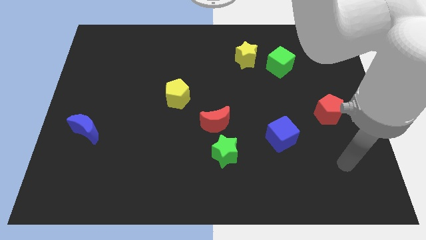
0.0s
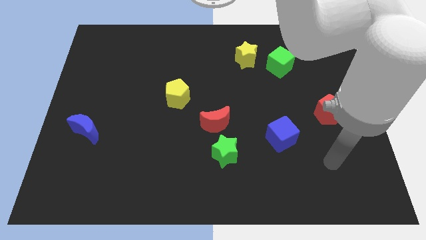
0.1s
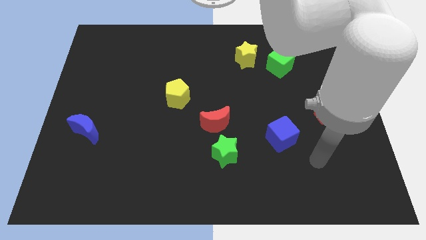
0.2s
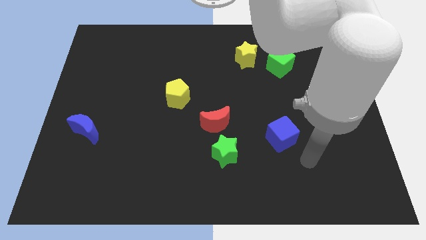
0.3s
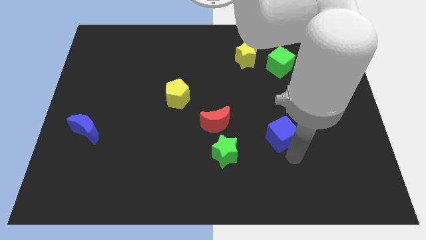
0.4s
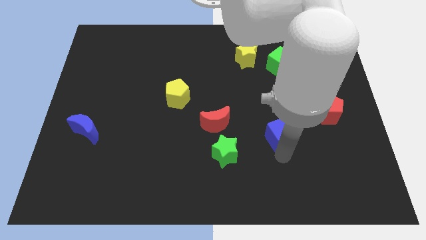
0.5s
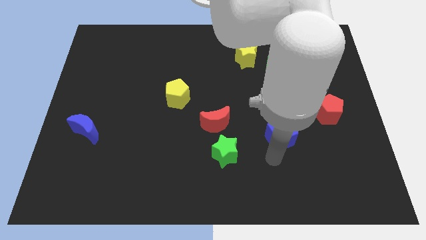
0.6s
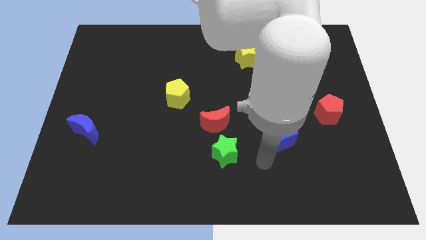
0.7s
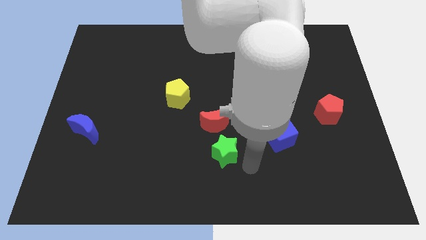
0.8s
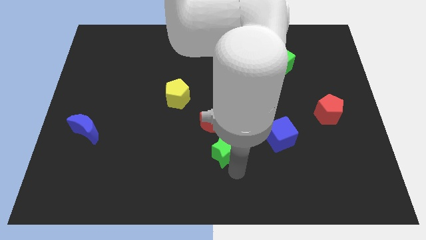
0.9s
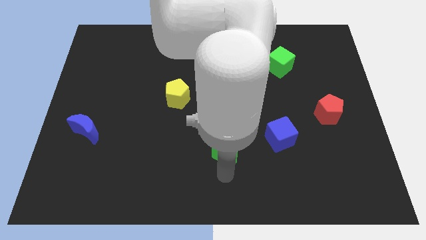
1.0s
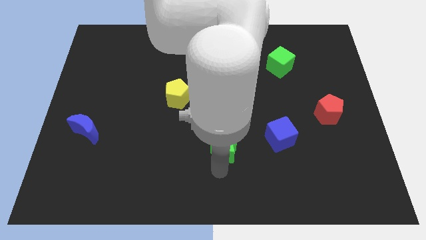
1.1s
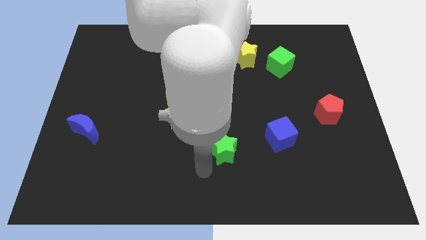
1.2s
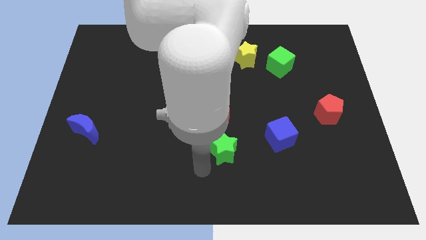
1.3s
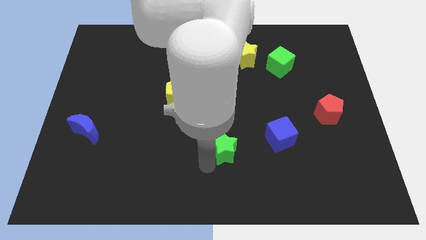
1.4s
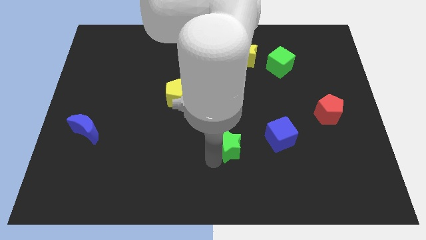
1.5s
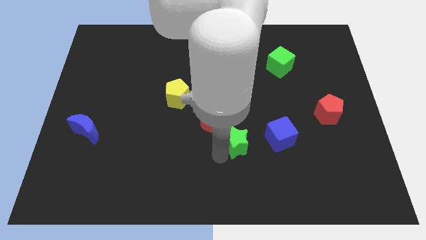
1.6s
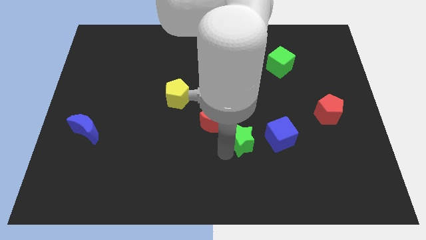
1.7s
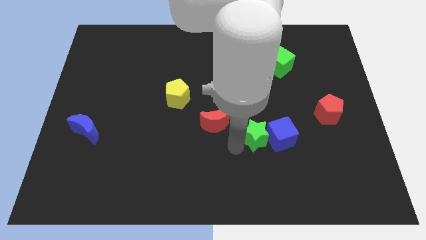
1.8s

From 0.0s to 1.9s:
push the green star a little bit upwards and right diagonally

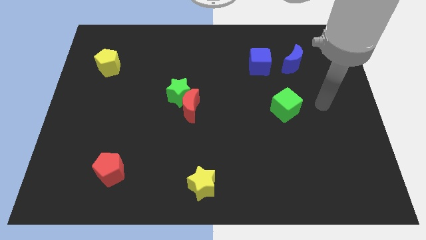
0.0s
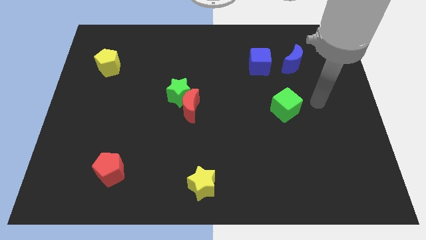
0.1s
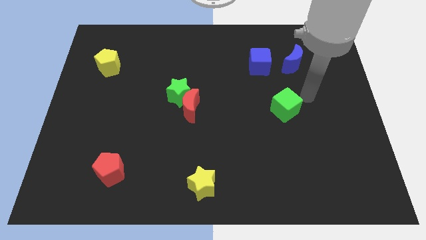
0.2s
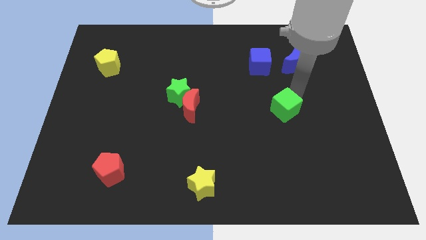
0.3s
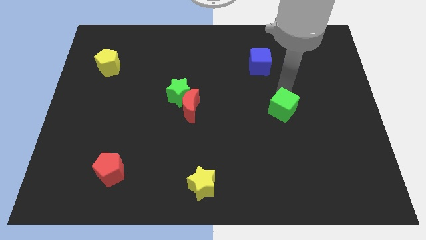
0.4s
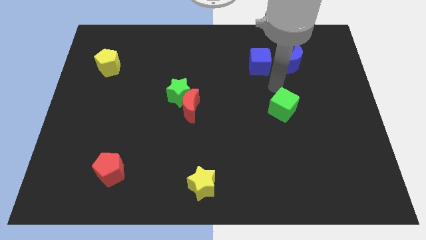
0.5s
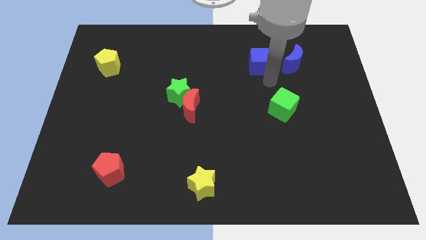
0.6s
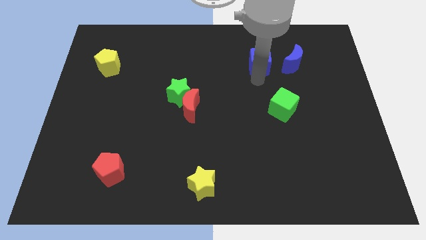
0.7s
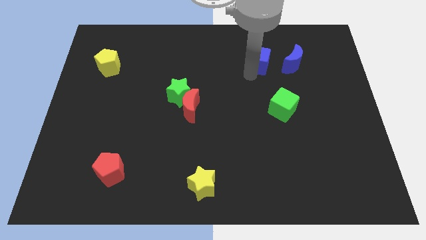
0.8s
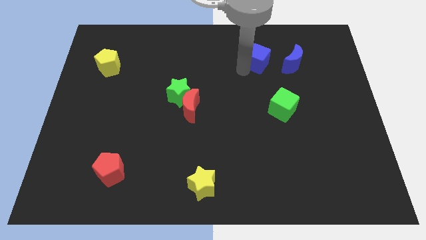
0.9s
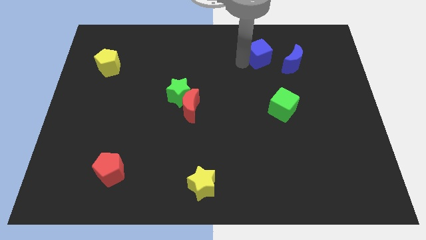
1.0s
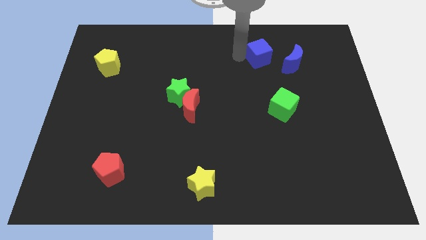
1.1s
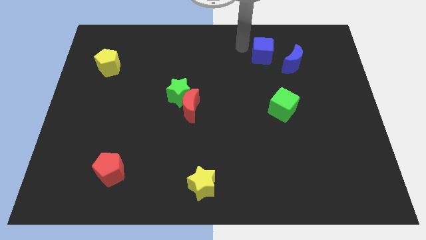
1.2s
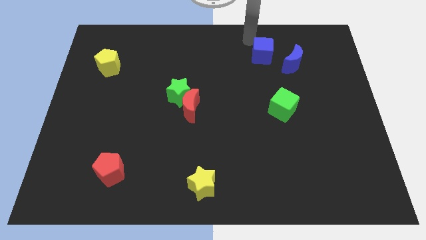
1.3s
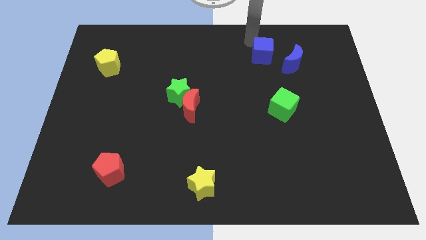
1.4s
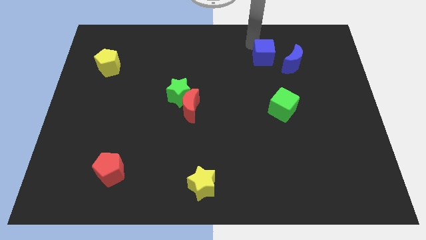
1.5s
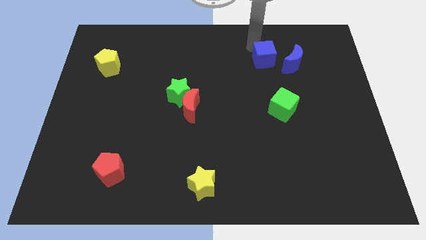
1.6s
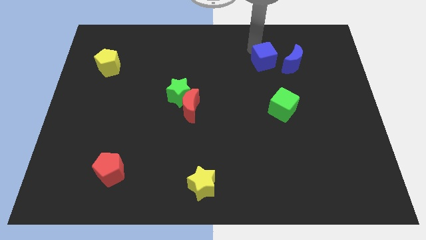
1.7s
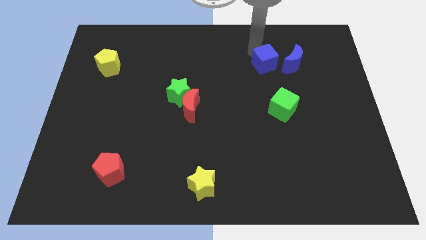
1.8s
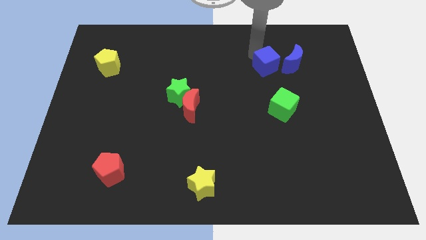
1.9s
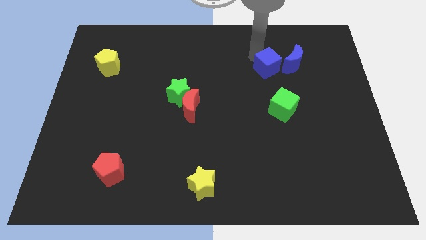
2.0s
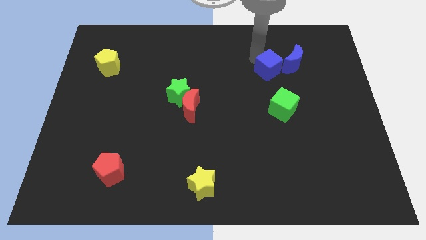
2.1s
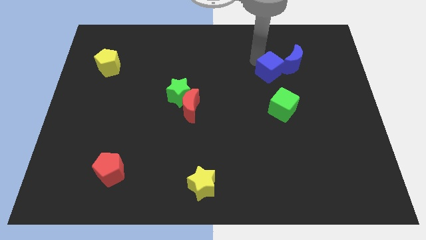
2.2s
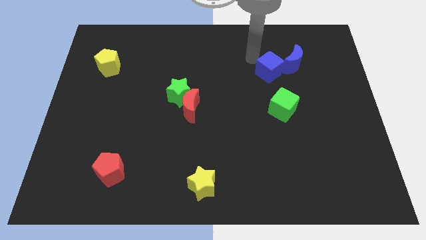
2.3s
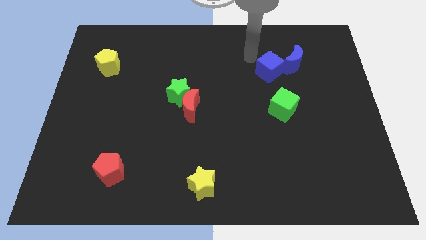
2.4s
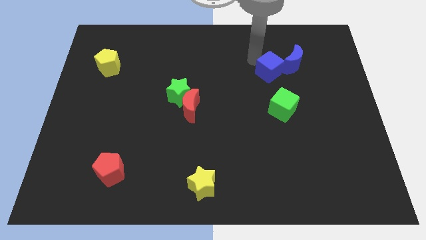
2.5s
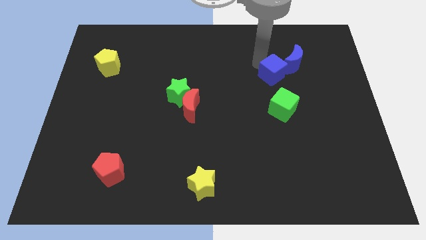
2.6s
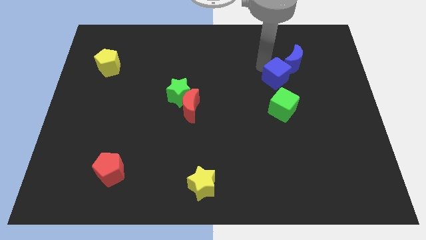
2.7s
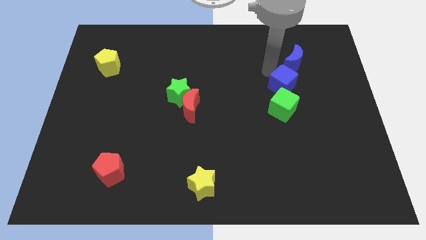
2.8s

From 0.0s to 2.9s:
slightly move the blue cube down and then to the right

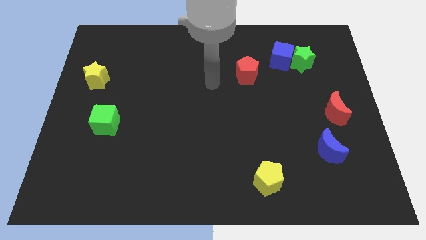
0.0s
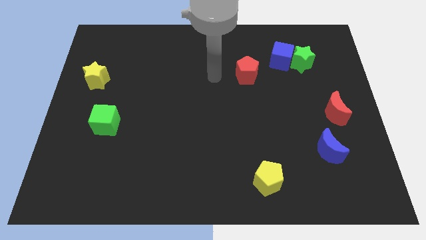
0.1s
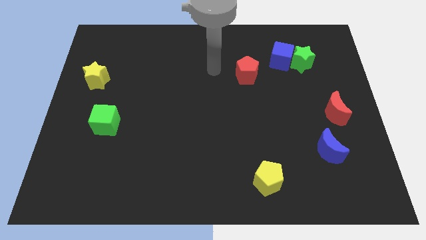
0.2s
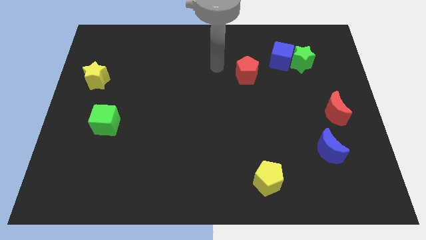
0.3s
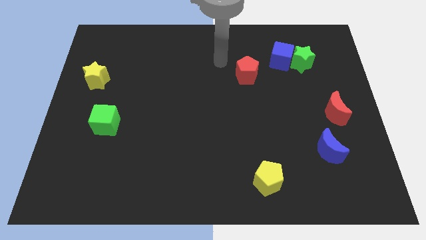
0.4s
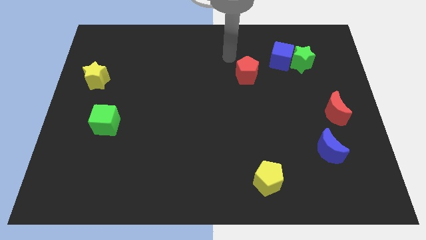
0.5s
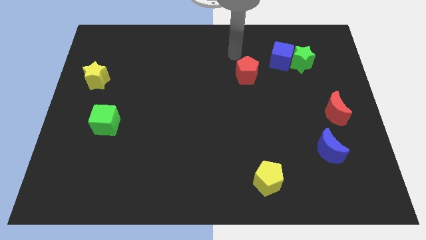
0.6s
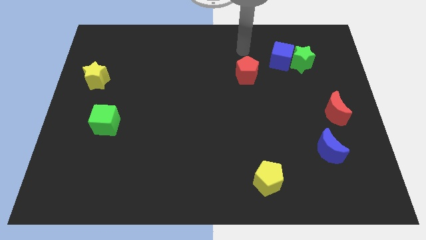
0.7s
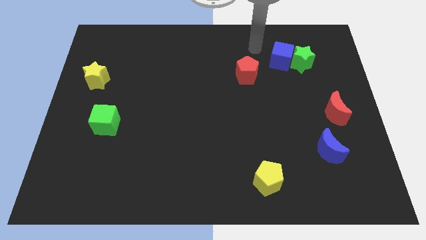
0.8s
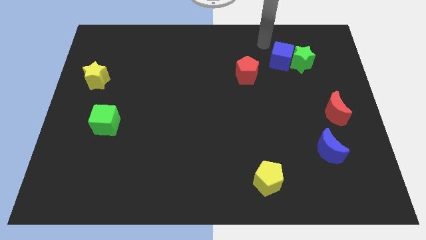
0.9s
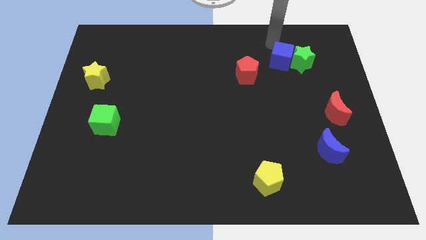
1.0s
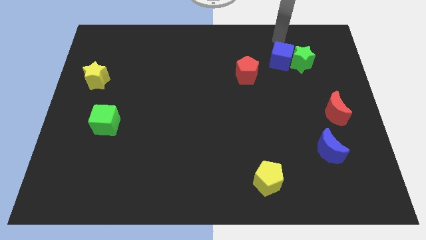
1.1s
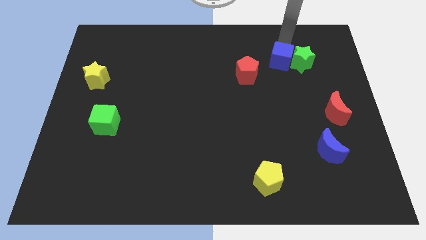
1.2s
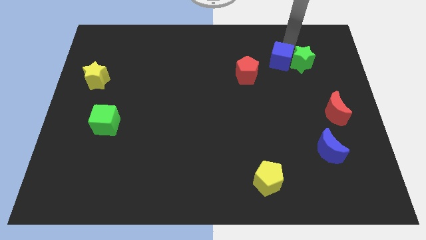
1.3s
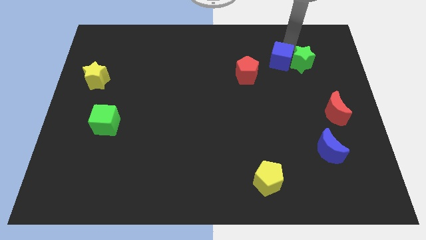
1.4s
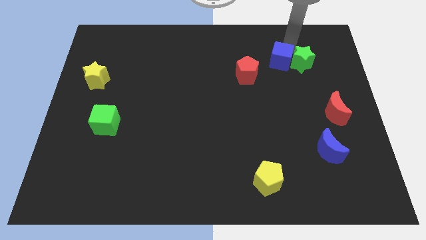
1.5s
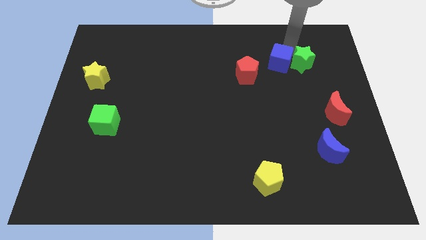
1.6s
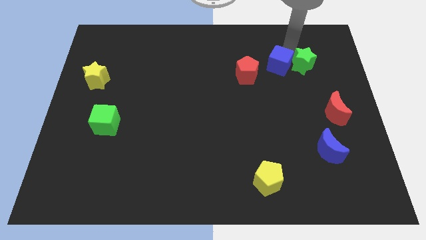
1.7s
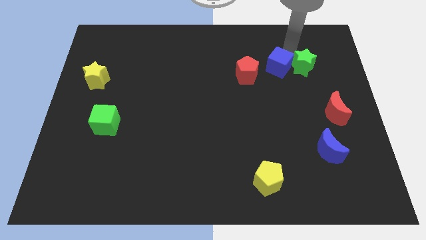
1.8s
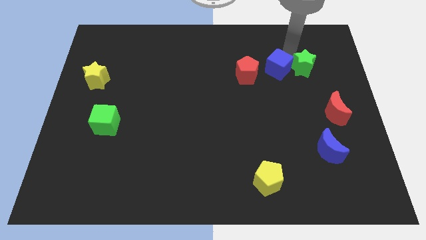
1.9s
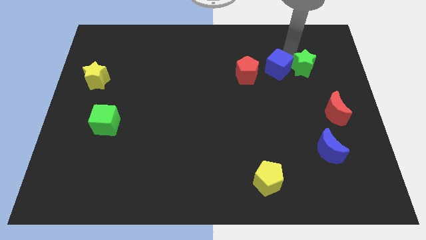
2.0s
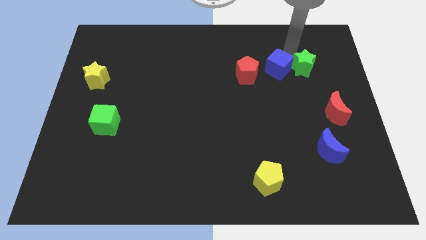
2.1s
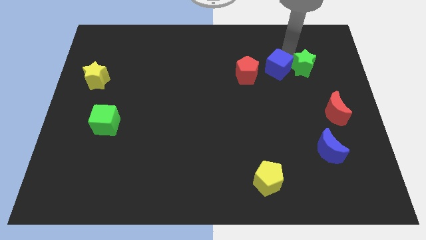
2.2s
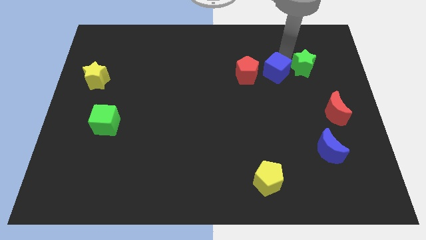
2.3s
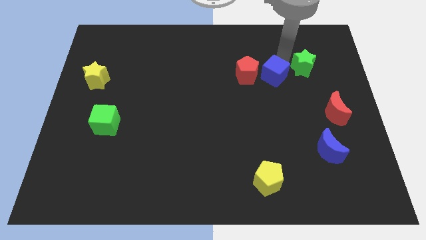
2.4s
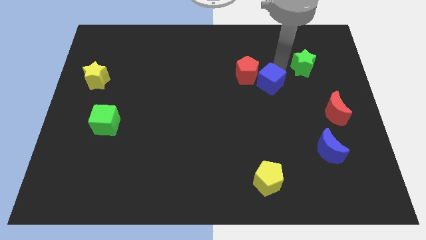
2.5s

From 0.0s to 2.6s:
slightly push the blue cube down and to the left diagonally

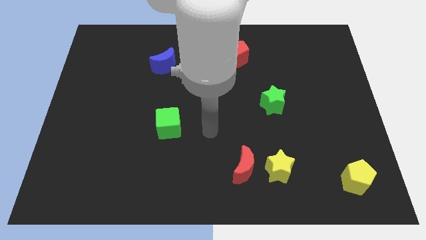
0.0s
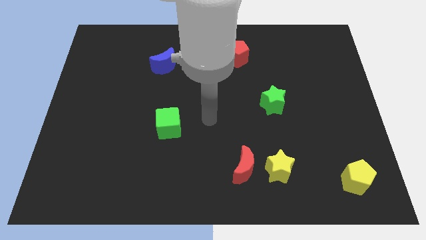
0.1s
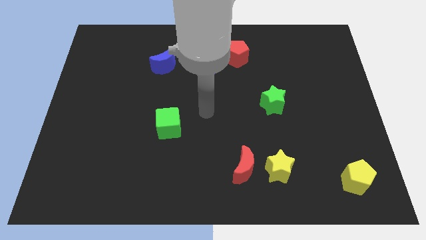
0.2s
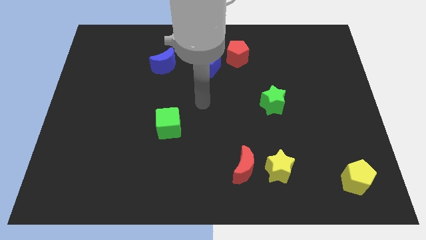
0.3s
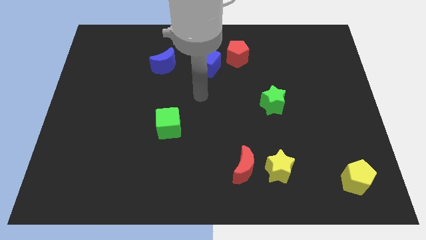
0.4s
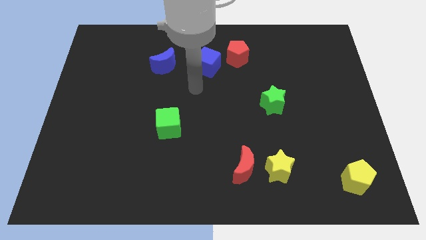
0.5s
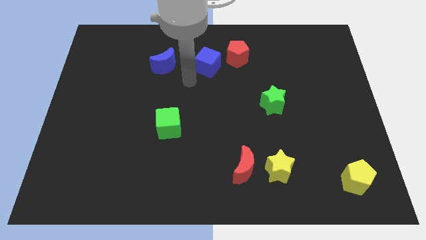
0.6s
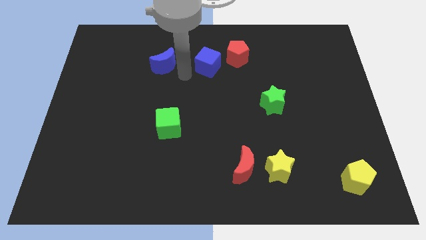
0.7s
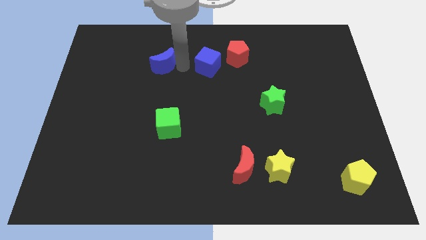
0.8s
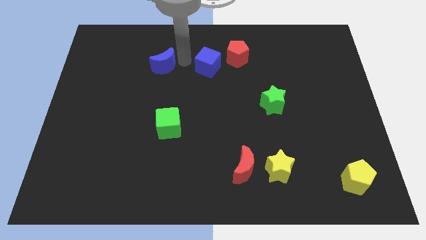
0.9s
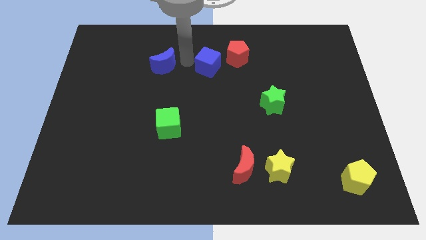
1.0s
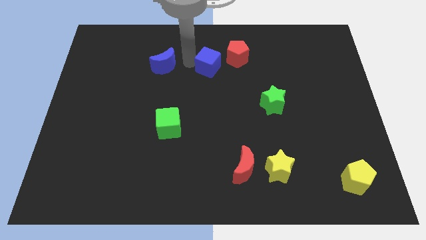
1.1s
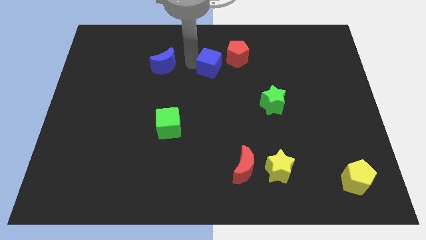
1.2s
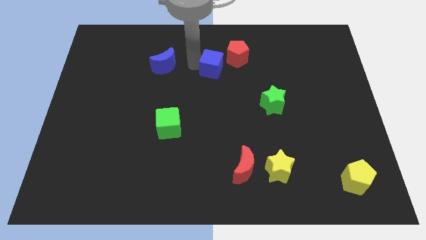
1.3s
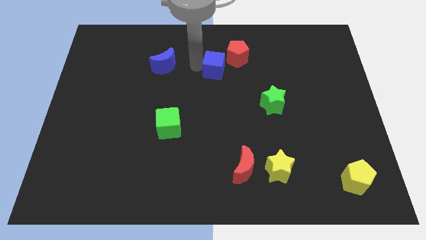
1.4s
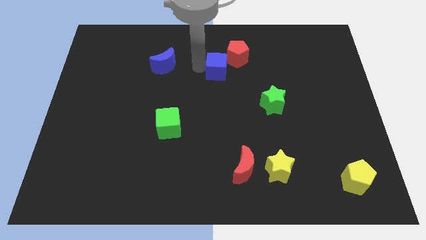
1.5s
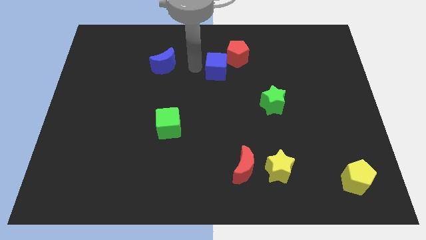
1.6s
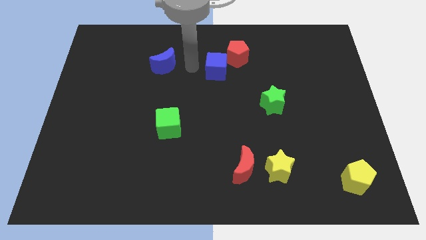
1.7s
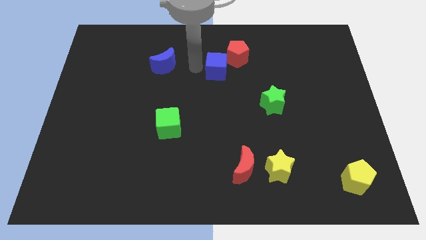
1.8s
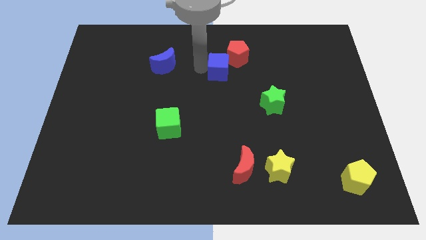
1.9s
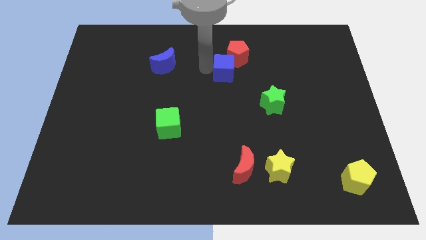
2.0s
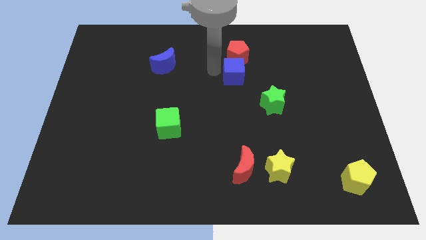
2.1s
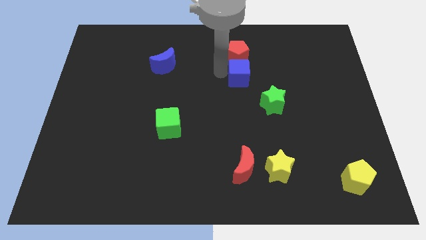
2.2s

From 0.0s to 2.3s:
slide the blue cube somewhat to the right
